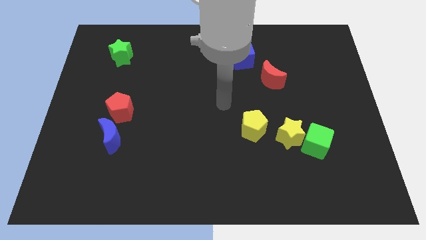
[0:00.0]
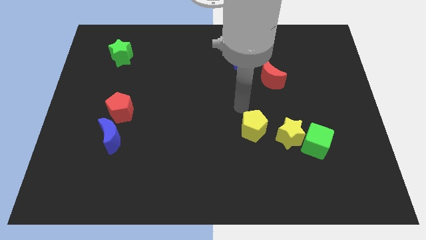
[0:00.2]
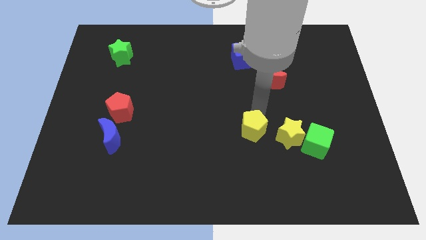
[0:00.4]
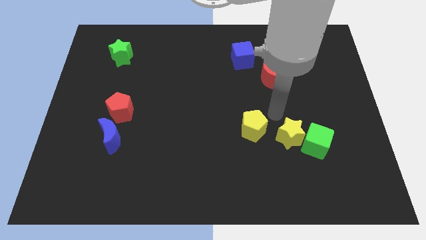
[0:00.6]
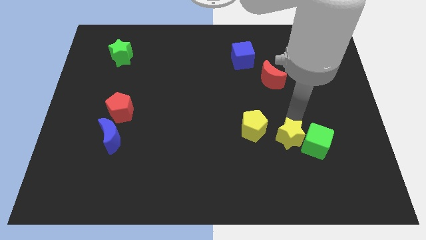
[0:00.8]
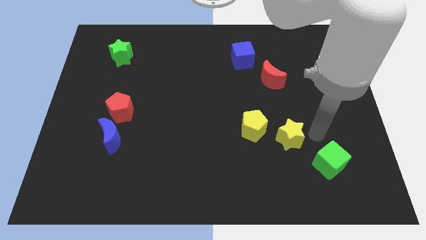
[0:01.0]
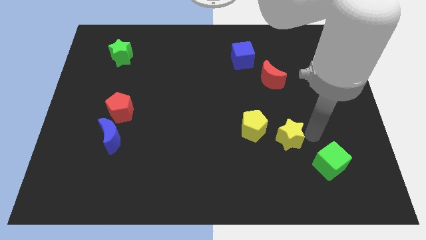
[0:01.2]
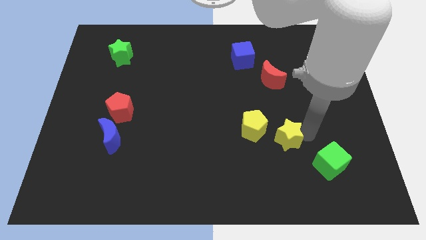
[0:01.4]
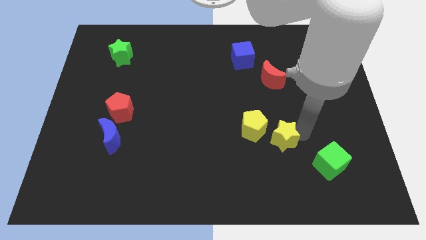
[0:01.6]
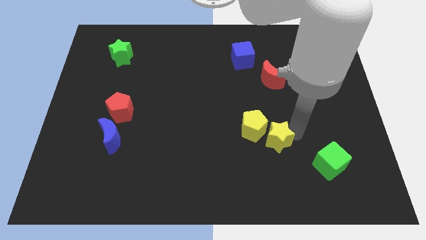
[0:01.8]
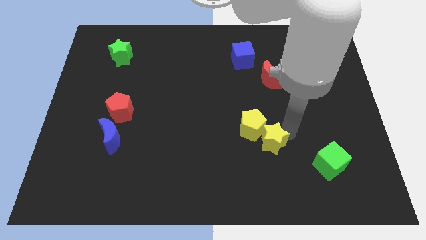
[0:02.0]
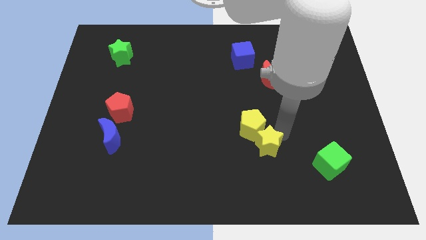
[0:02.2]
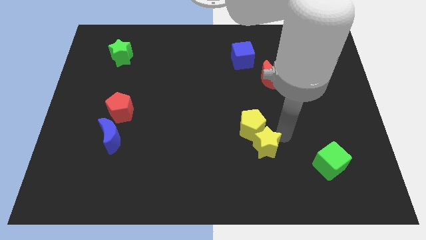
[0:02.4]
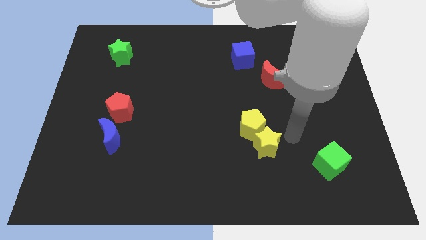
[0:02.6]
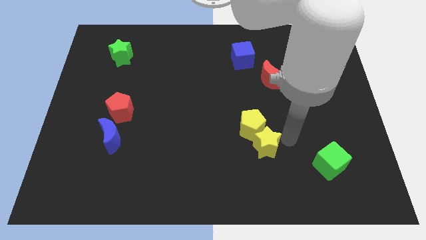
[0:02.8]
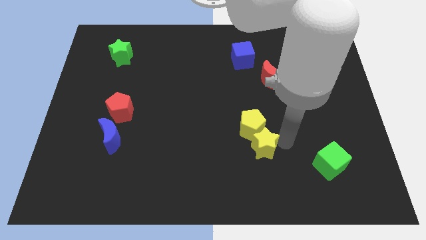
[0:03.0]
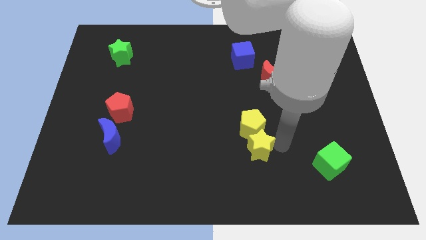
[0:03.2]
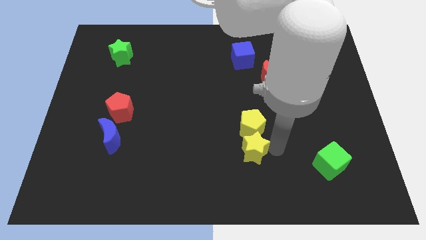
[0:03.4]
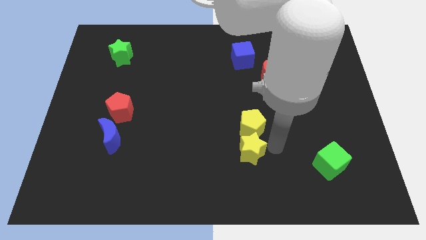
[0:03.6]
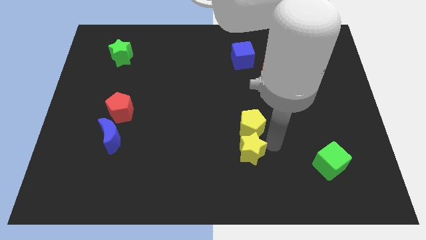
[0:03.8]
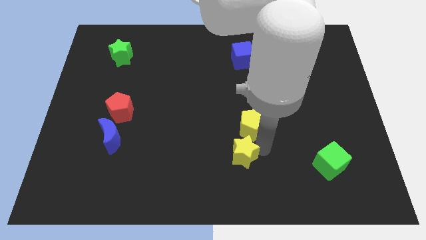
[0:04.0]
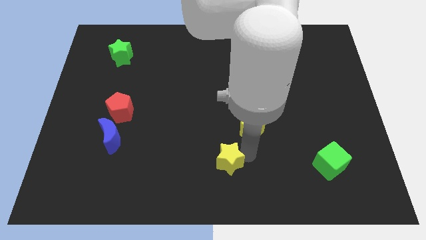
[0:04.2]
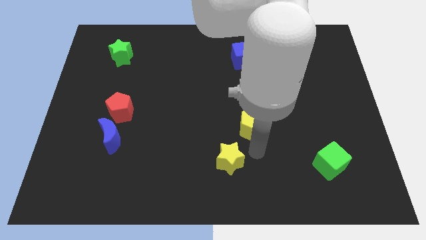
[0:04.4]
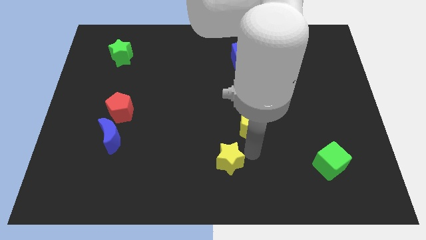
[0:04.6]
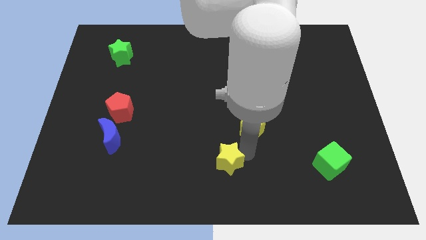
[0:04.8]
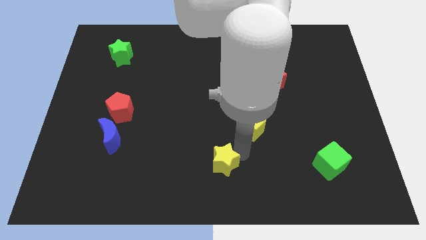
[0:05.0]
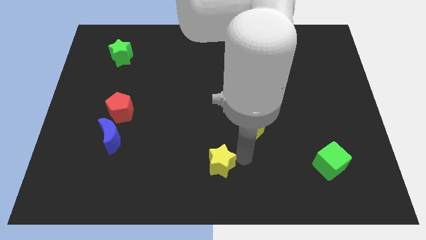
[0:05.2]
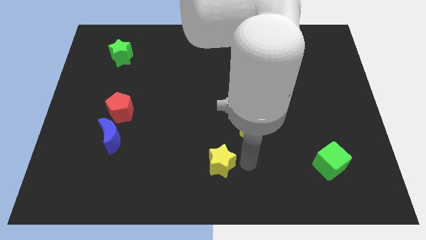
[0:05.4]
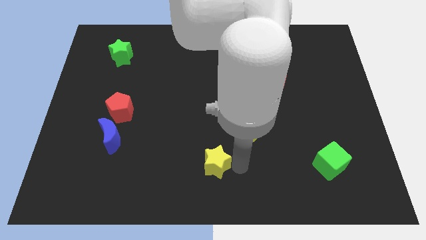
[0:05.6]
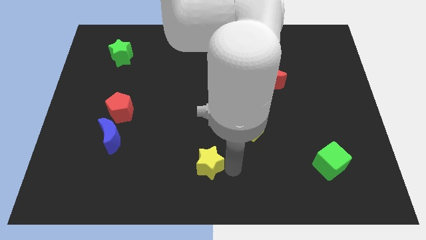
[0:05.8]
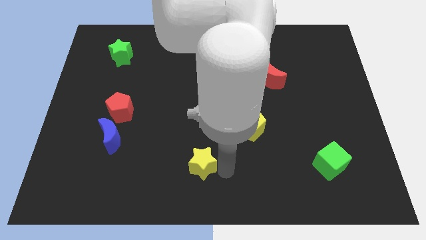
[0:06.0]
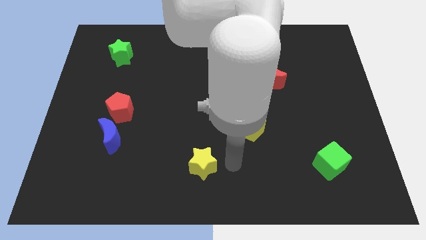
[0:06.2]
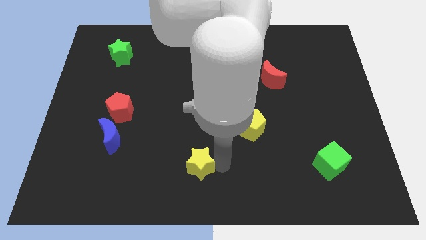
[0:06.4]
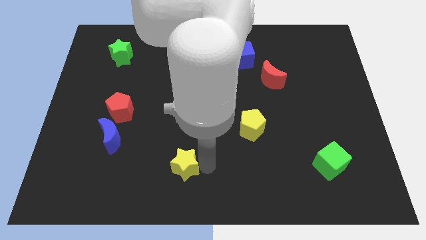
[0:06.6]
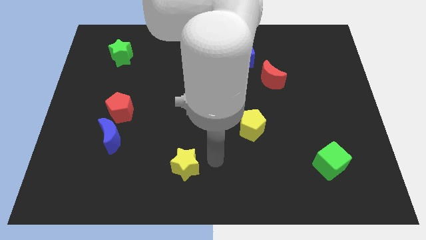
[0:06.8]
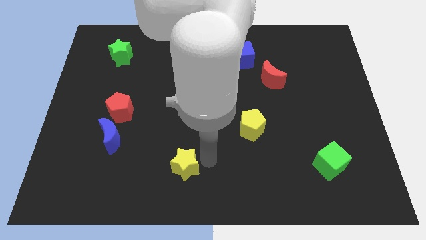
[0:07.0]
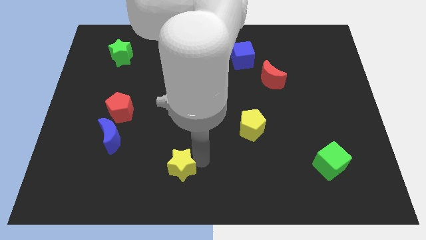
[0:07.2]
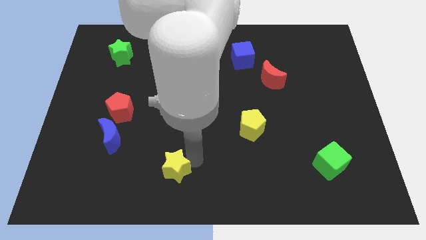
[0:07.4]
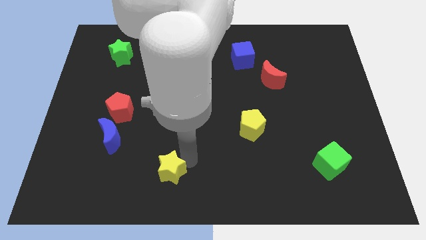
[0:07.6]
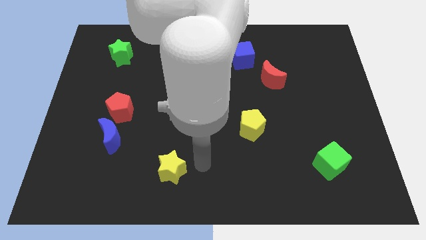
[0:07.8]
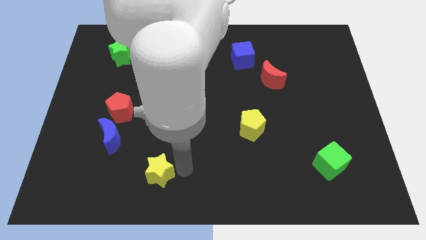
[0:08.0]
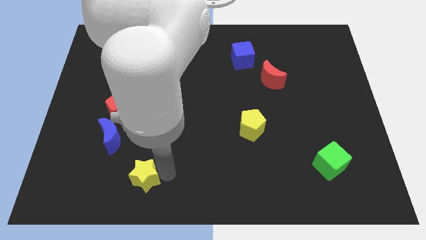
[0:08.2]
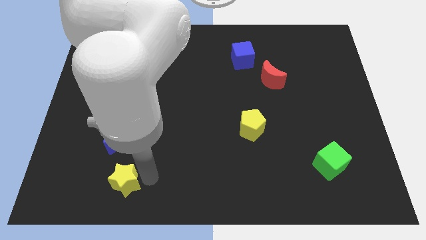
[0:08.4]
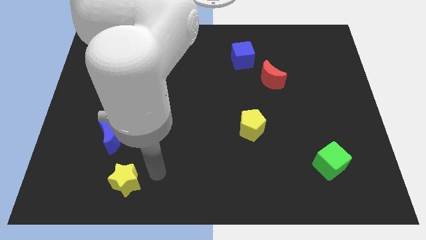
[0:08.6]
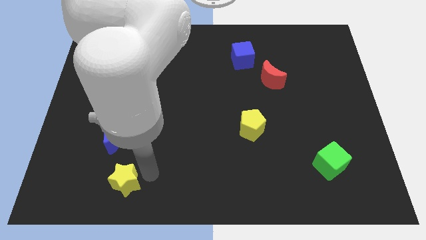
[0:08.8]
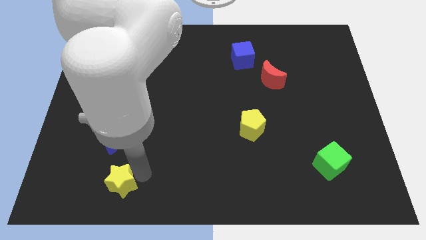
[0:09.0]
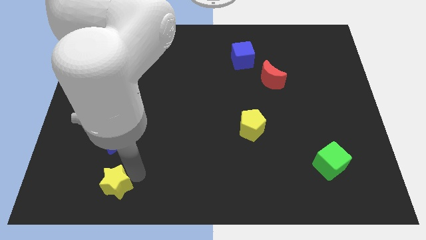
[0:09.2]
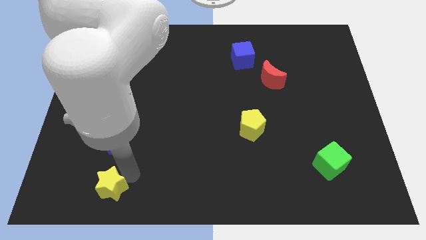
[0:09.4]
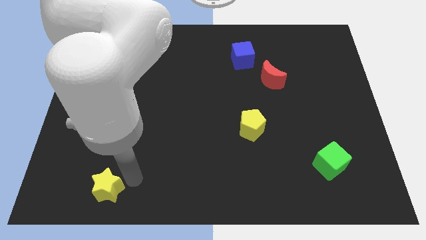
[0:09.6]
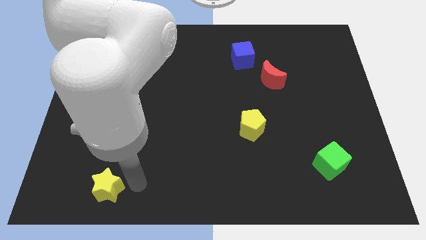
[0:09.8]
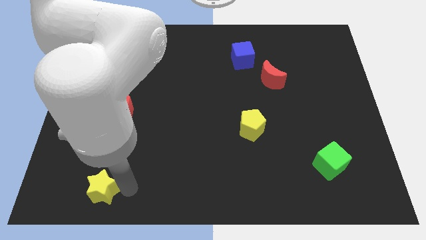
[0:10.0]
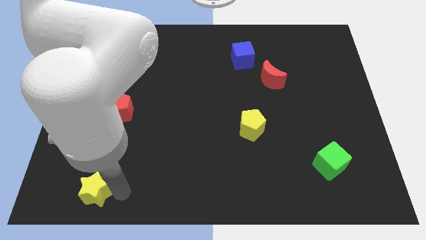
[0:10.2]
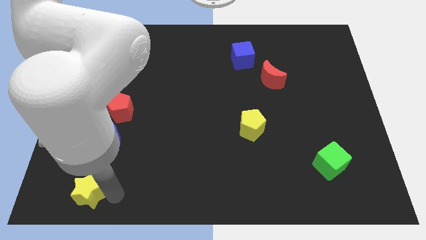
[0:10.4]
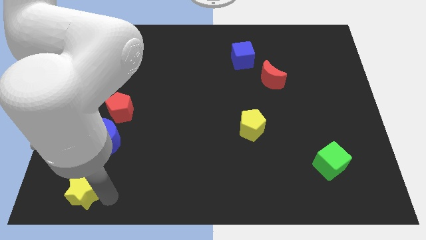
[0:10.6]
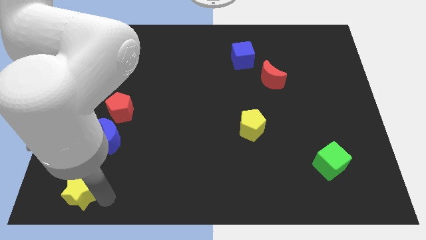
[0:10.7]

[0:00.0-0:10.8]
move the yellow star to the lower left corner

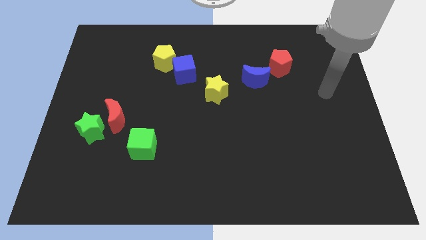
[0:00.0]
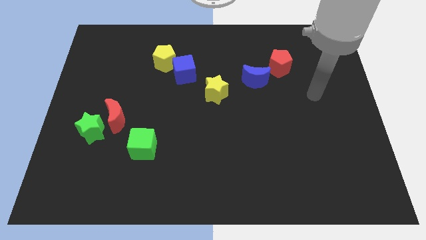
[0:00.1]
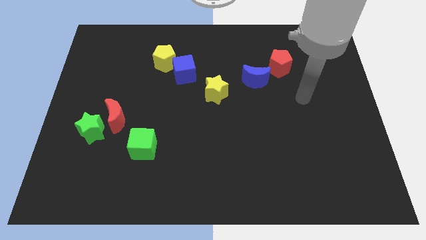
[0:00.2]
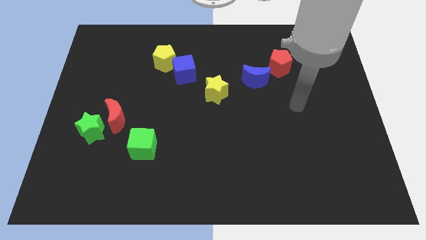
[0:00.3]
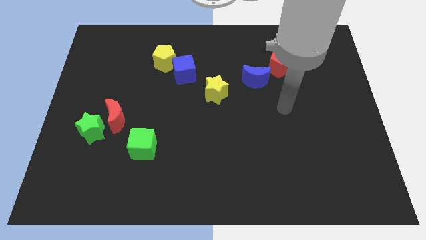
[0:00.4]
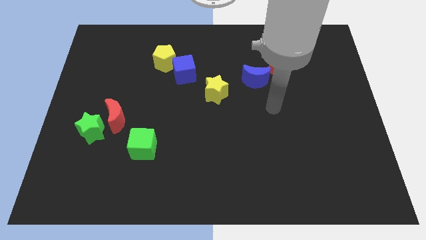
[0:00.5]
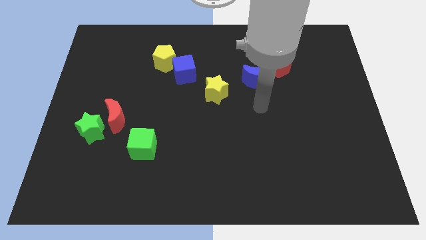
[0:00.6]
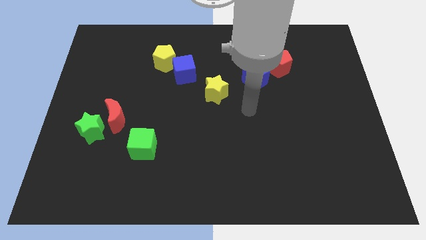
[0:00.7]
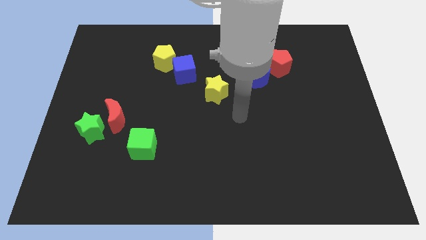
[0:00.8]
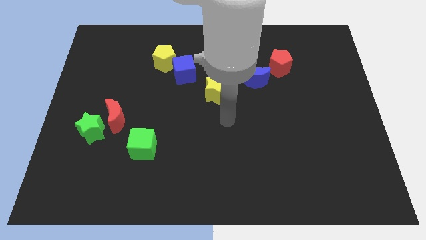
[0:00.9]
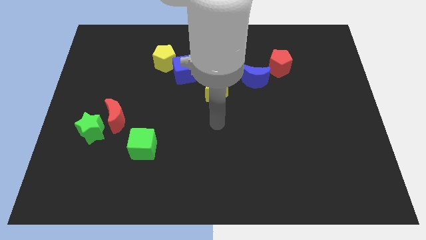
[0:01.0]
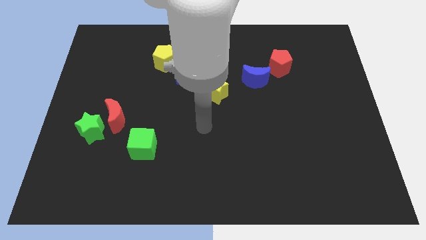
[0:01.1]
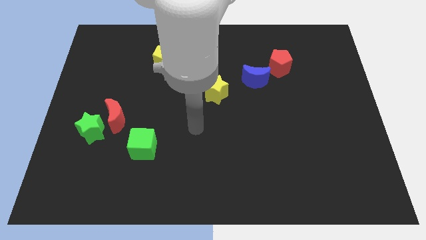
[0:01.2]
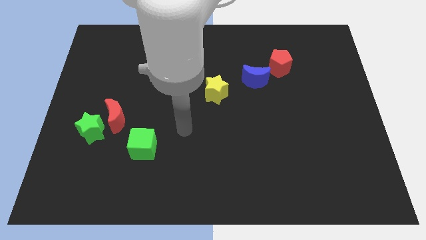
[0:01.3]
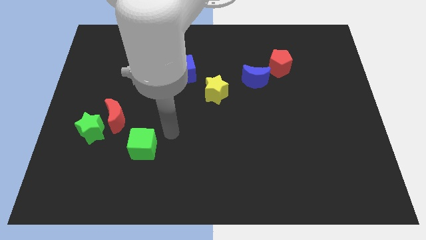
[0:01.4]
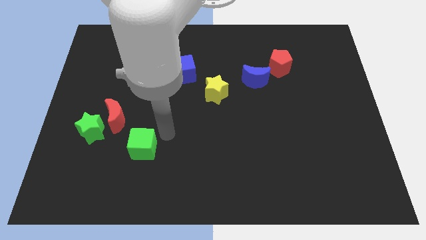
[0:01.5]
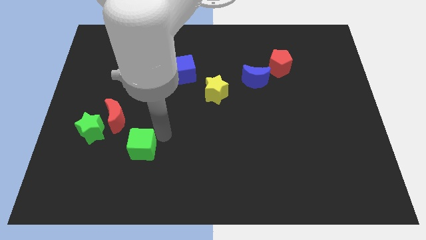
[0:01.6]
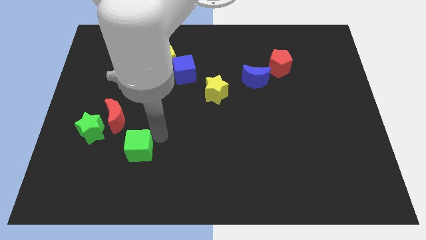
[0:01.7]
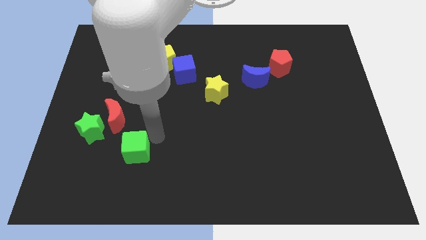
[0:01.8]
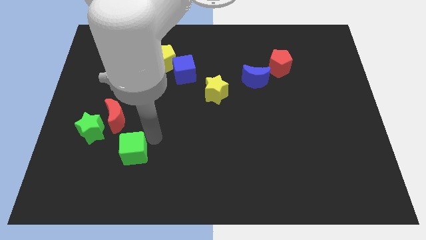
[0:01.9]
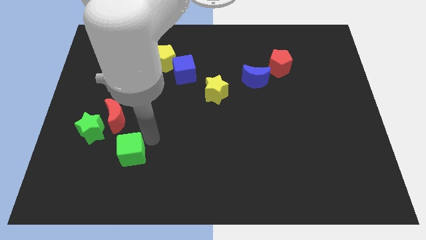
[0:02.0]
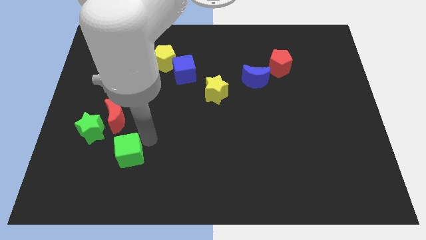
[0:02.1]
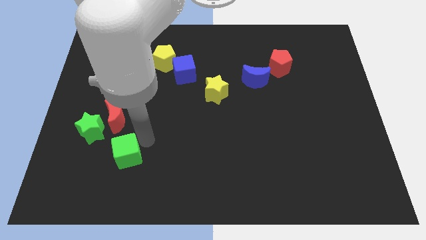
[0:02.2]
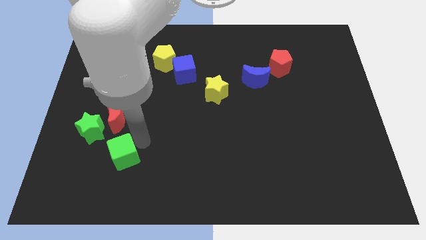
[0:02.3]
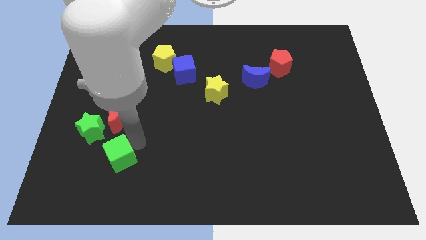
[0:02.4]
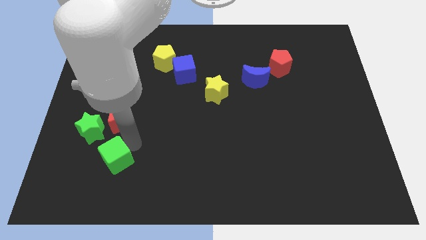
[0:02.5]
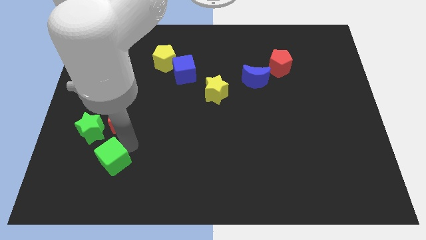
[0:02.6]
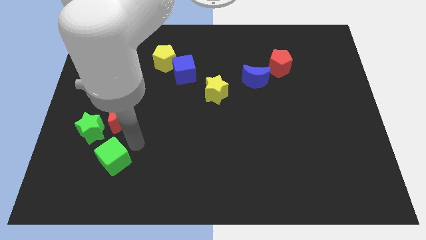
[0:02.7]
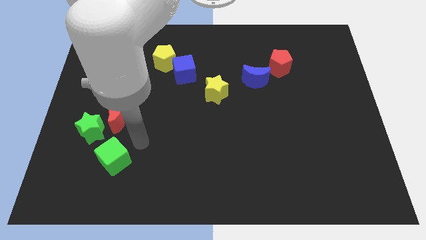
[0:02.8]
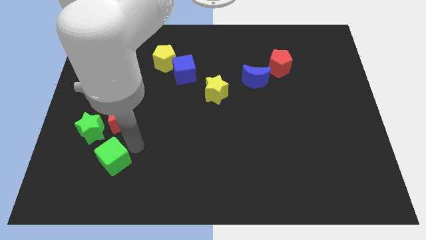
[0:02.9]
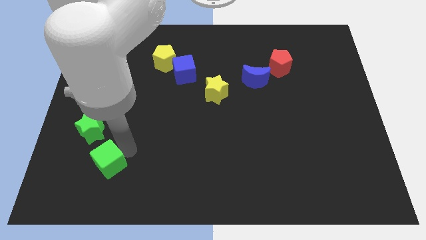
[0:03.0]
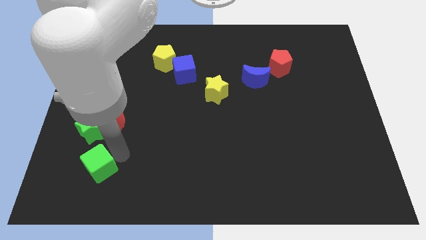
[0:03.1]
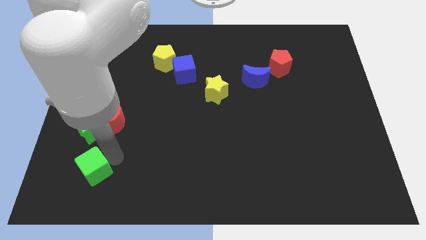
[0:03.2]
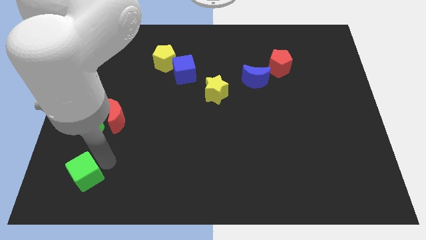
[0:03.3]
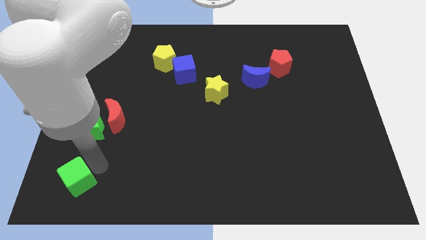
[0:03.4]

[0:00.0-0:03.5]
put the green cube to the bottom left of the board
